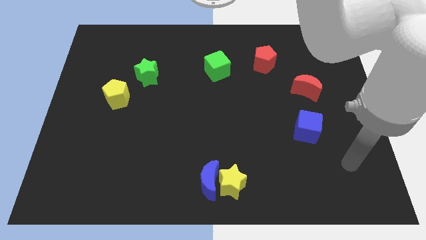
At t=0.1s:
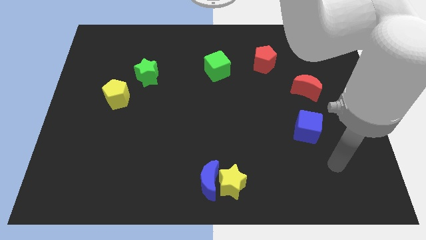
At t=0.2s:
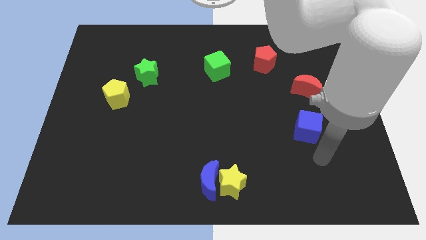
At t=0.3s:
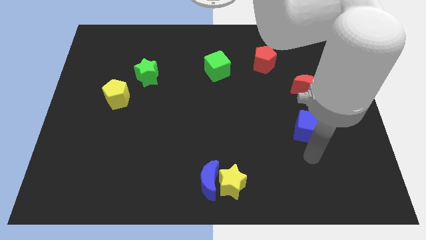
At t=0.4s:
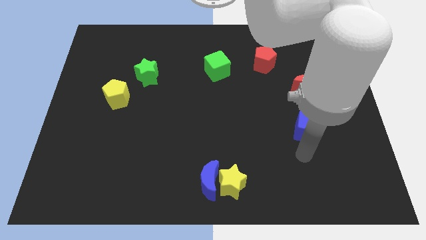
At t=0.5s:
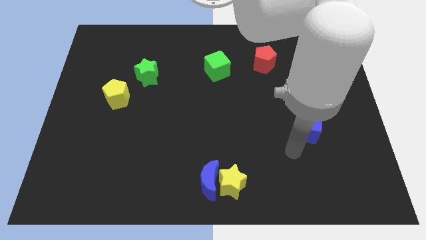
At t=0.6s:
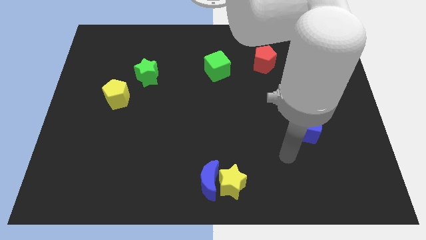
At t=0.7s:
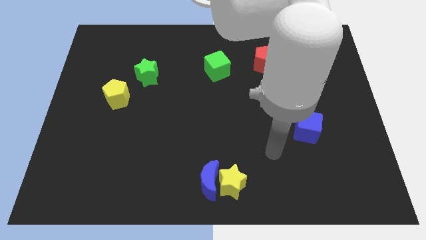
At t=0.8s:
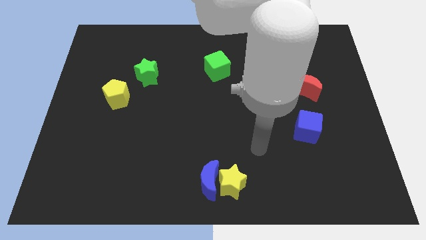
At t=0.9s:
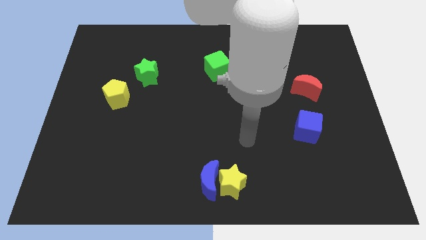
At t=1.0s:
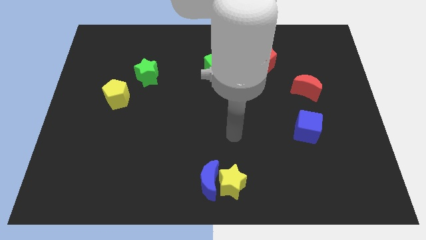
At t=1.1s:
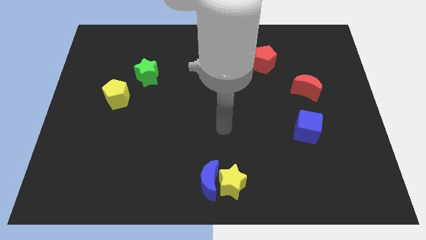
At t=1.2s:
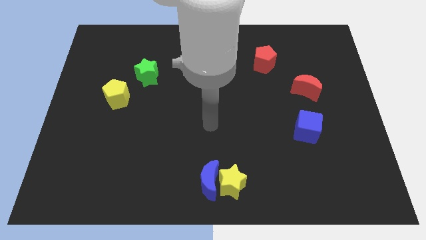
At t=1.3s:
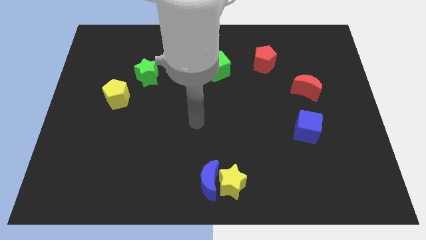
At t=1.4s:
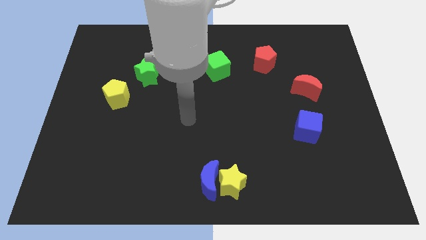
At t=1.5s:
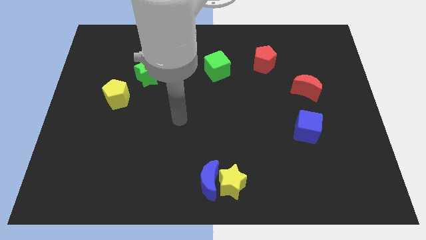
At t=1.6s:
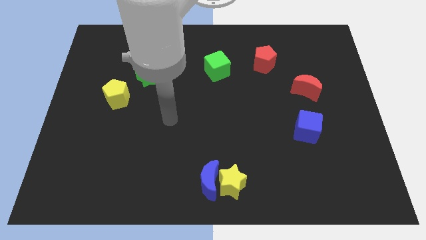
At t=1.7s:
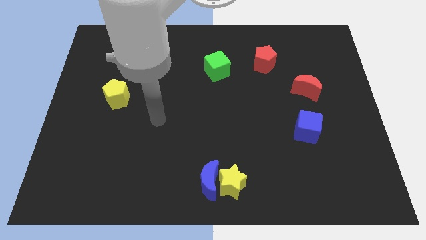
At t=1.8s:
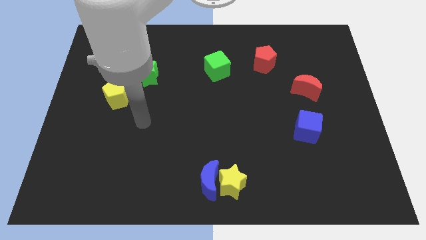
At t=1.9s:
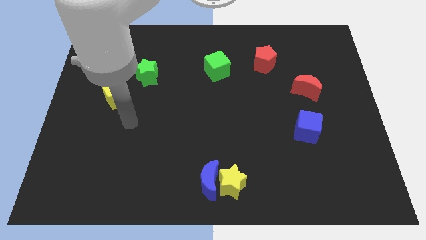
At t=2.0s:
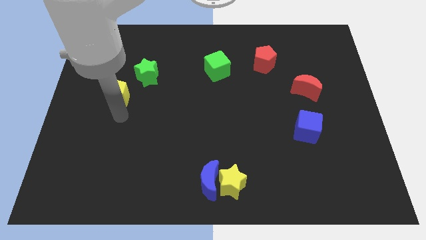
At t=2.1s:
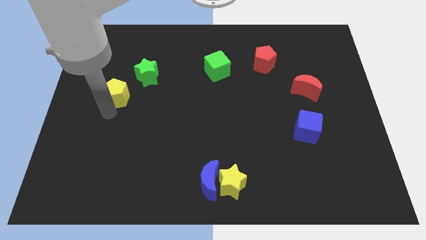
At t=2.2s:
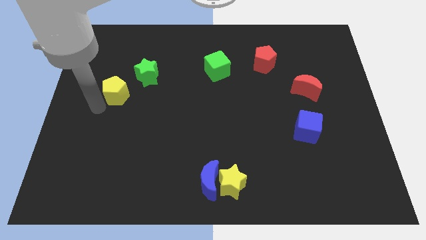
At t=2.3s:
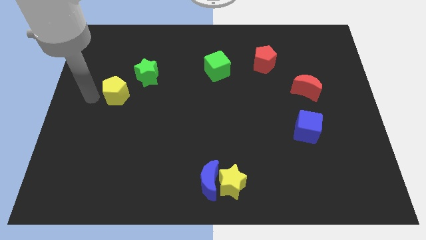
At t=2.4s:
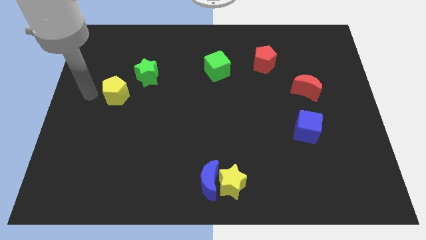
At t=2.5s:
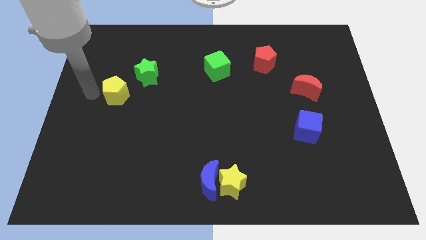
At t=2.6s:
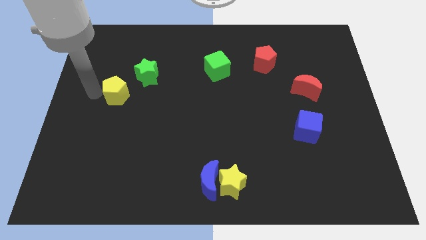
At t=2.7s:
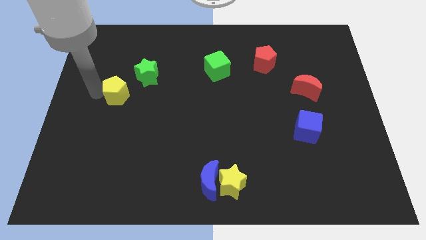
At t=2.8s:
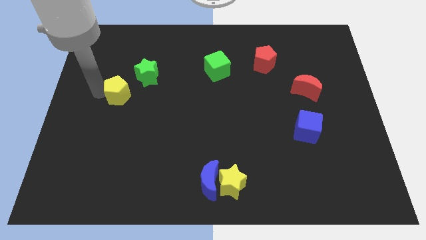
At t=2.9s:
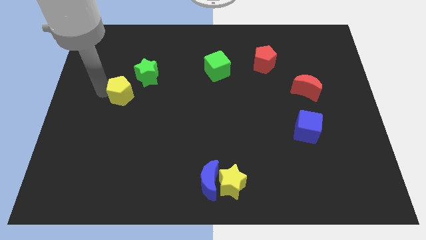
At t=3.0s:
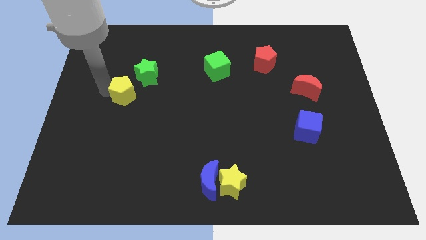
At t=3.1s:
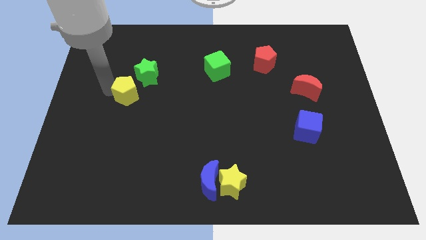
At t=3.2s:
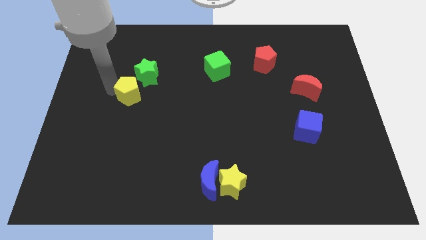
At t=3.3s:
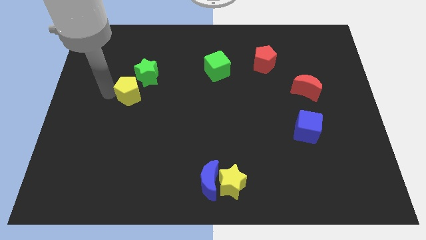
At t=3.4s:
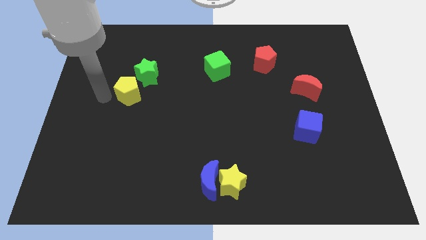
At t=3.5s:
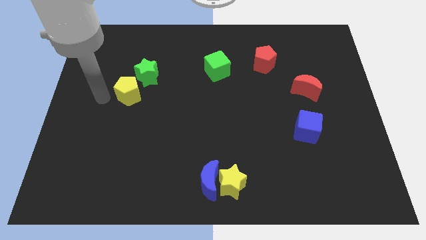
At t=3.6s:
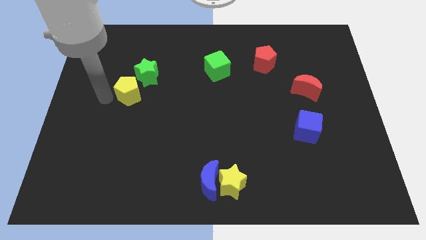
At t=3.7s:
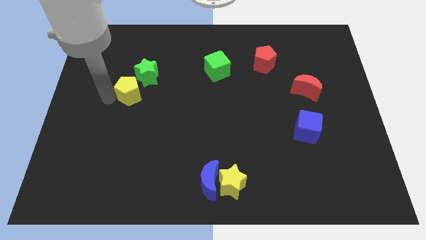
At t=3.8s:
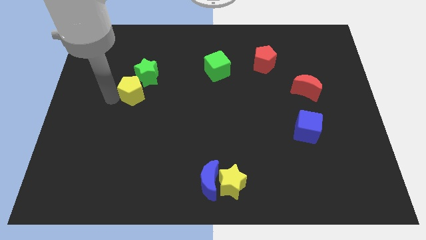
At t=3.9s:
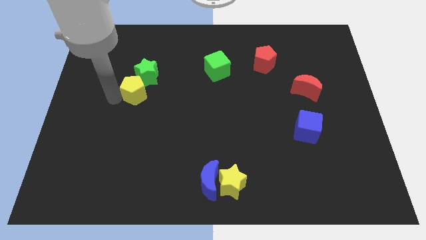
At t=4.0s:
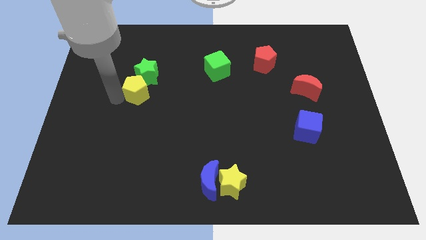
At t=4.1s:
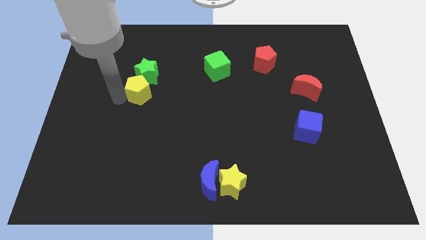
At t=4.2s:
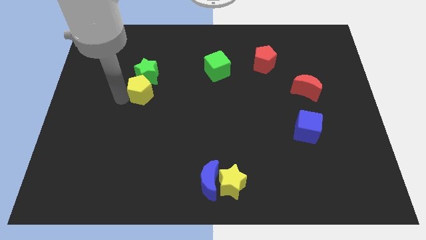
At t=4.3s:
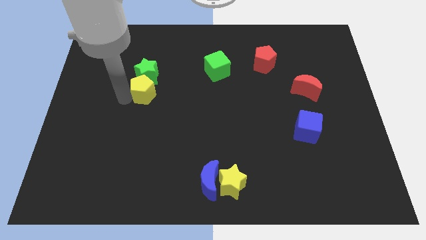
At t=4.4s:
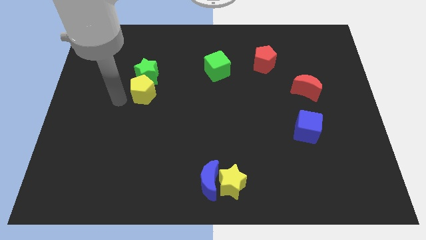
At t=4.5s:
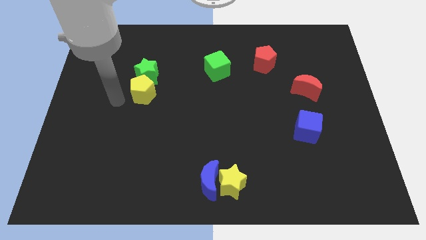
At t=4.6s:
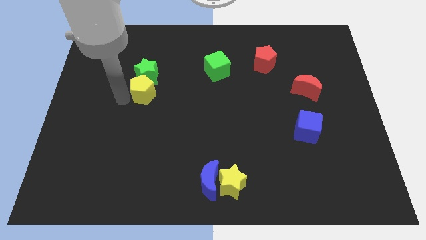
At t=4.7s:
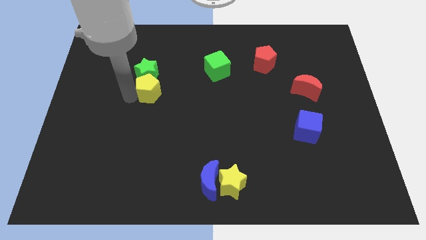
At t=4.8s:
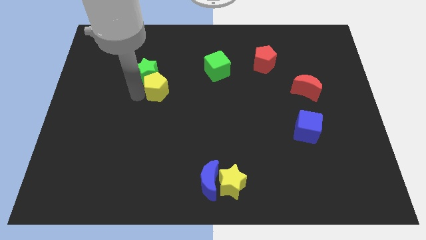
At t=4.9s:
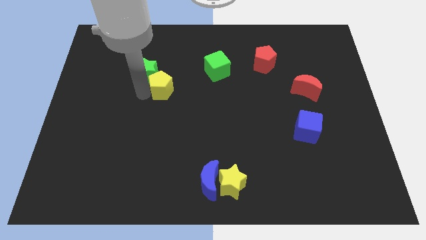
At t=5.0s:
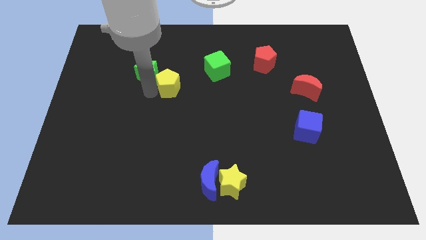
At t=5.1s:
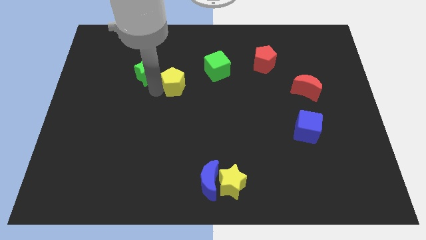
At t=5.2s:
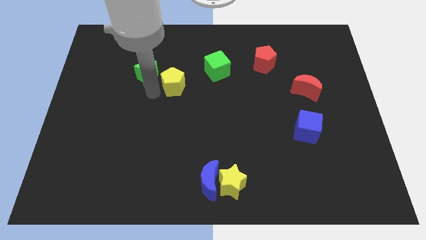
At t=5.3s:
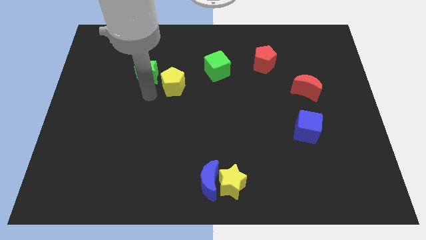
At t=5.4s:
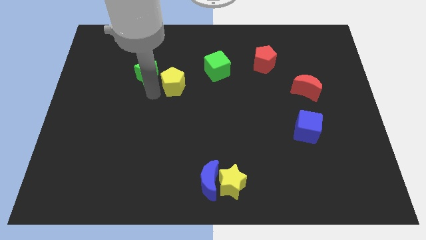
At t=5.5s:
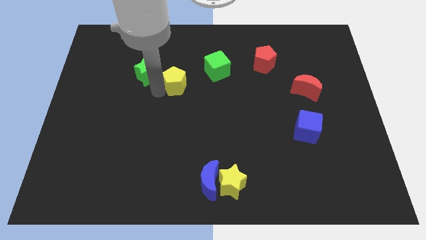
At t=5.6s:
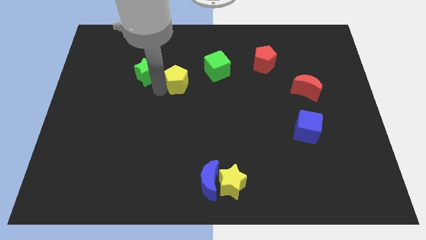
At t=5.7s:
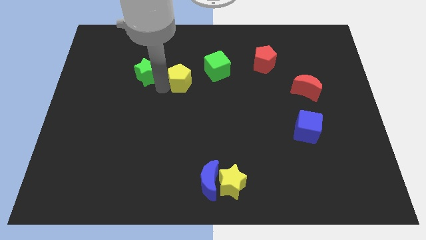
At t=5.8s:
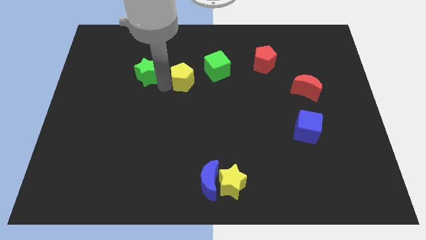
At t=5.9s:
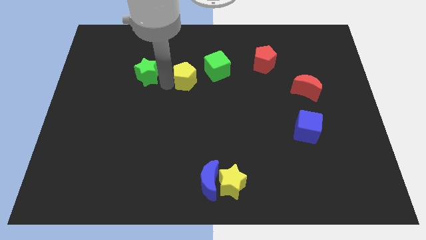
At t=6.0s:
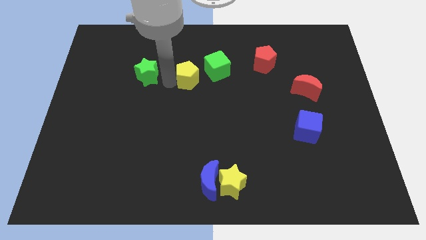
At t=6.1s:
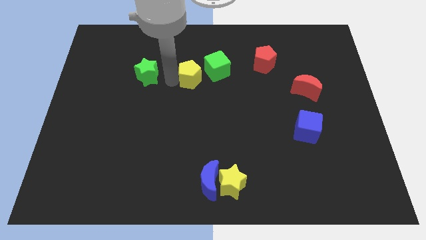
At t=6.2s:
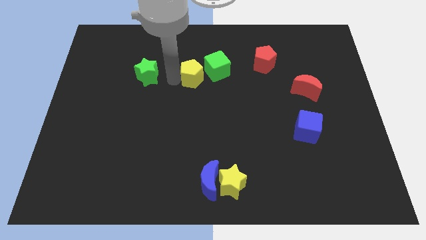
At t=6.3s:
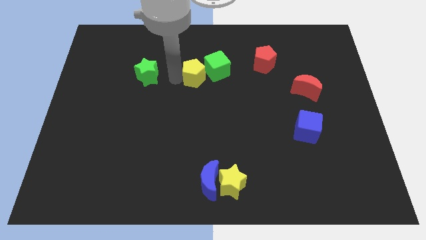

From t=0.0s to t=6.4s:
put the yellow pentagon to the green cube

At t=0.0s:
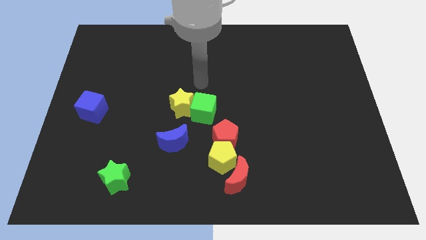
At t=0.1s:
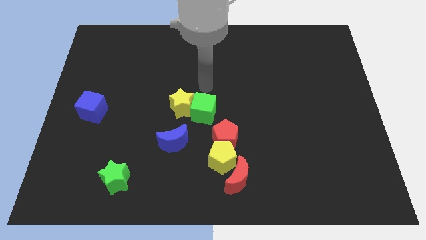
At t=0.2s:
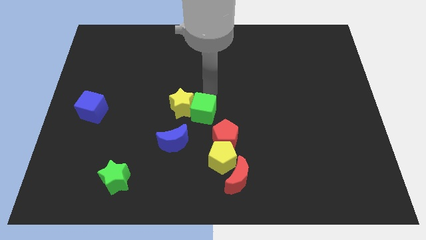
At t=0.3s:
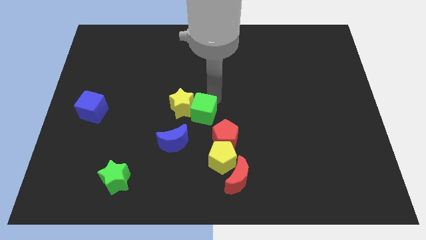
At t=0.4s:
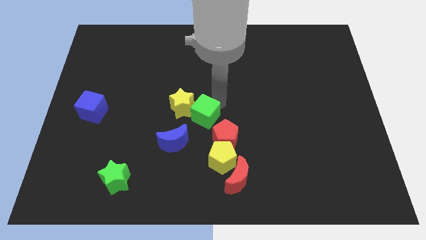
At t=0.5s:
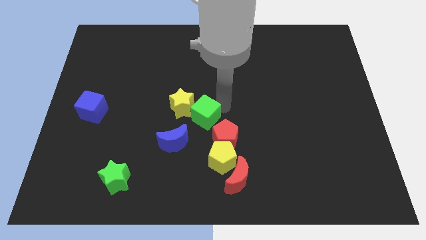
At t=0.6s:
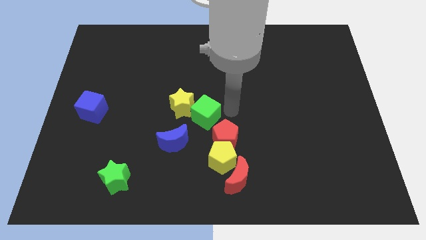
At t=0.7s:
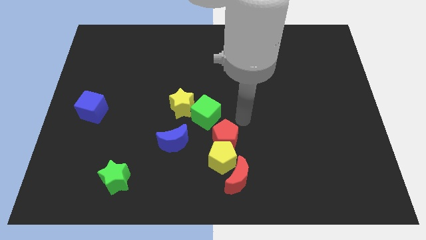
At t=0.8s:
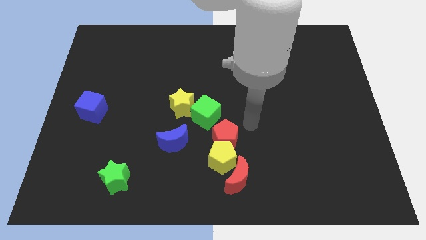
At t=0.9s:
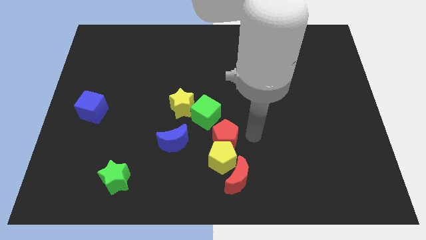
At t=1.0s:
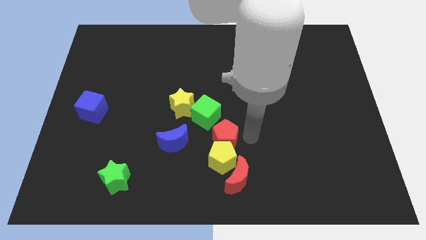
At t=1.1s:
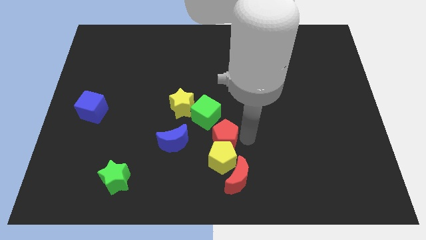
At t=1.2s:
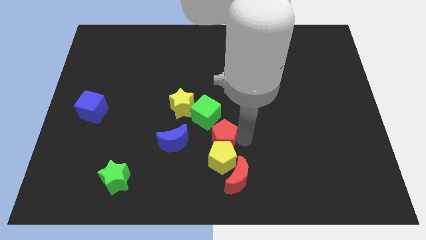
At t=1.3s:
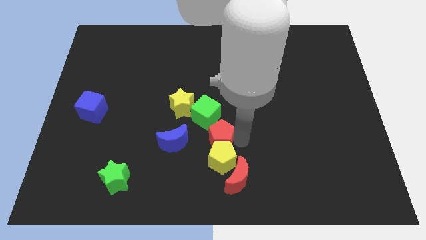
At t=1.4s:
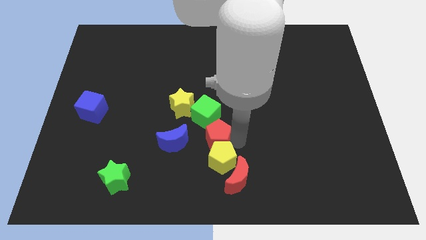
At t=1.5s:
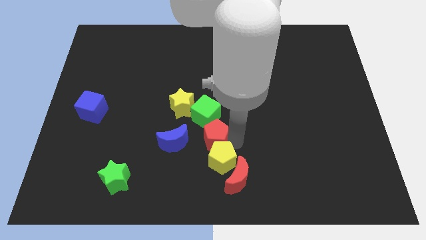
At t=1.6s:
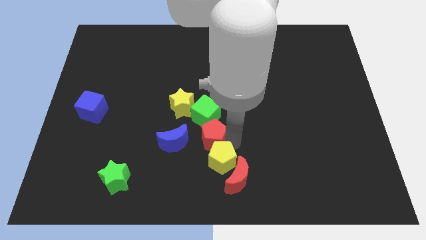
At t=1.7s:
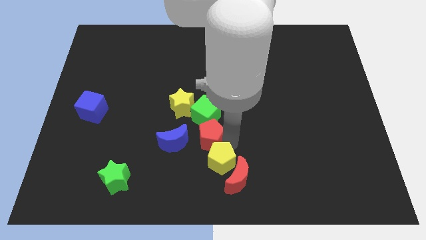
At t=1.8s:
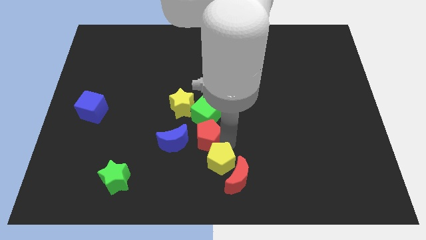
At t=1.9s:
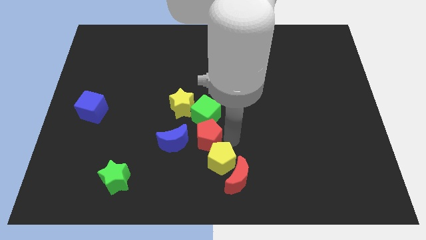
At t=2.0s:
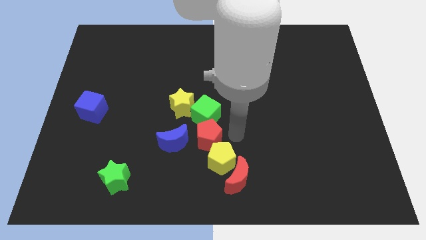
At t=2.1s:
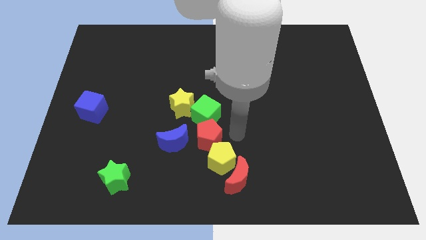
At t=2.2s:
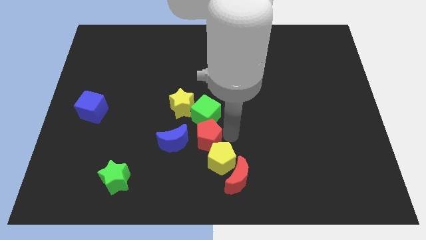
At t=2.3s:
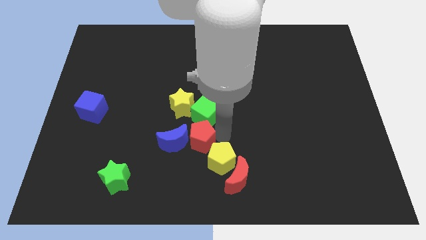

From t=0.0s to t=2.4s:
put the red pentagon close to the blue moon
